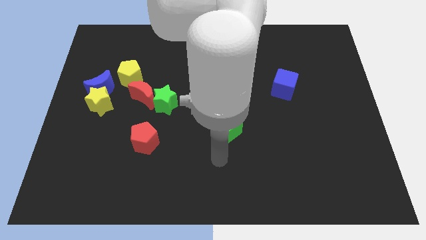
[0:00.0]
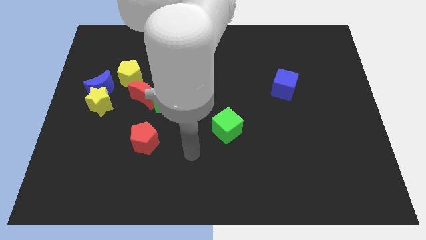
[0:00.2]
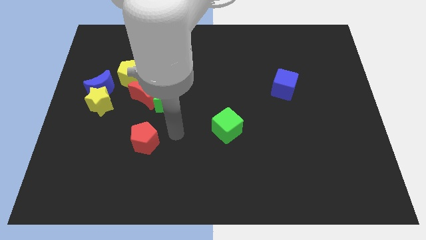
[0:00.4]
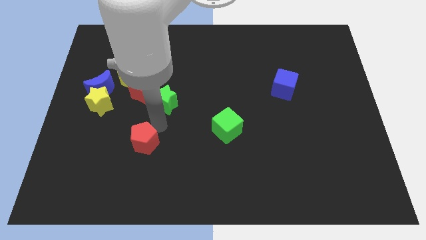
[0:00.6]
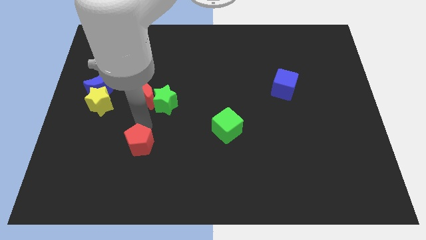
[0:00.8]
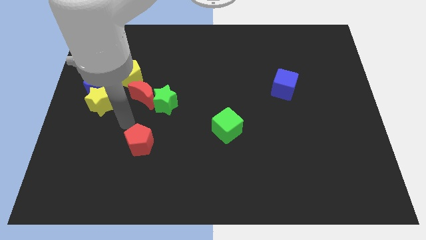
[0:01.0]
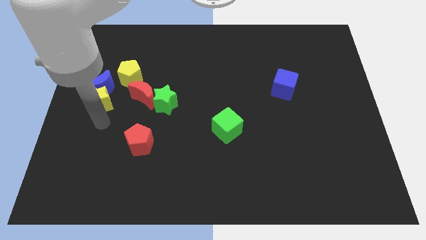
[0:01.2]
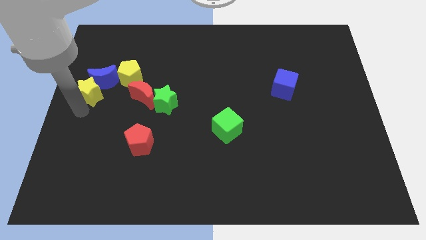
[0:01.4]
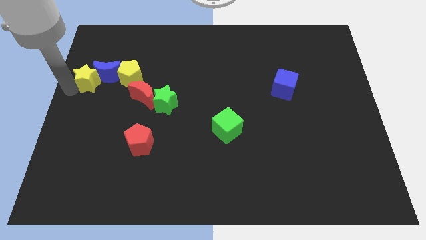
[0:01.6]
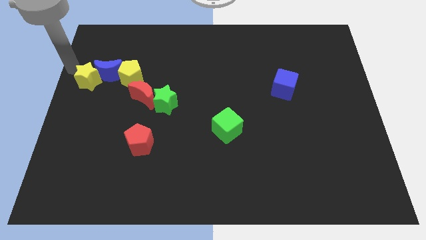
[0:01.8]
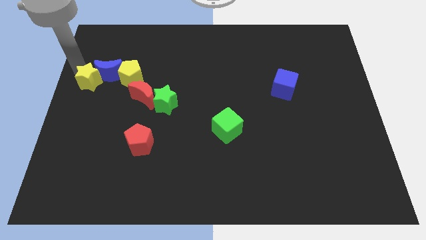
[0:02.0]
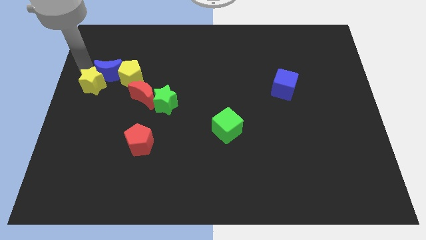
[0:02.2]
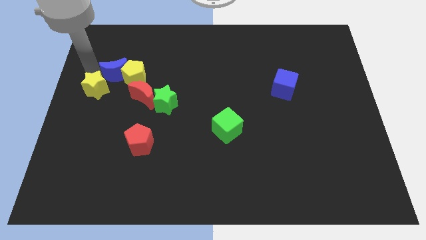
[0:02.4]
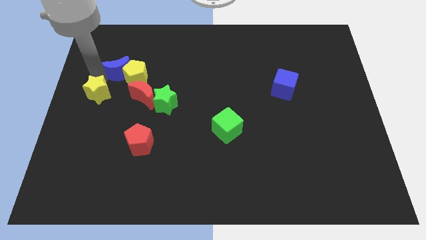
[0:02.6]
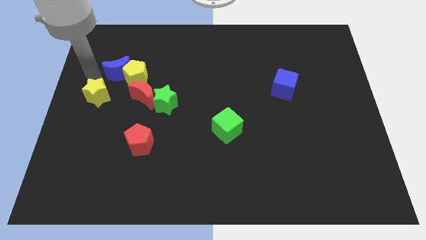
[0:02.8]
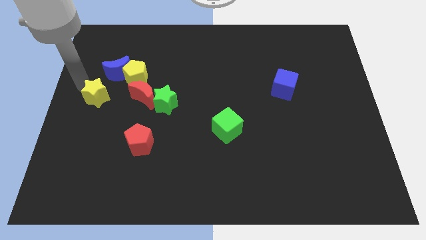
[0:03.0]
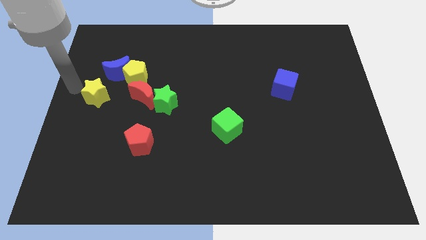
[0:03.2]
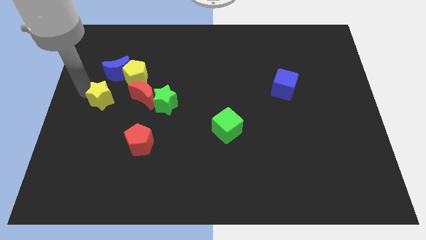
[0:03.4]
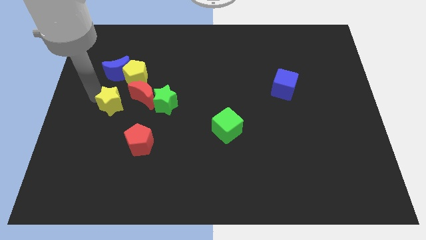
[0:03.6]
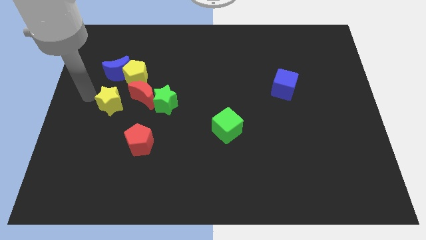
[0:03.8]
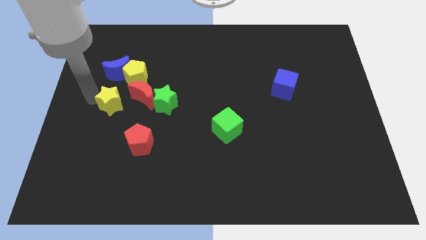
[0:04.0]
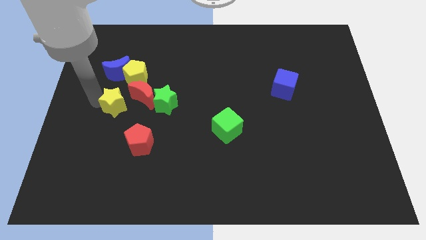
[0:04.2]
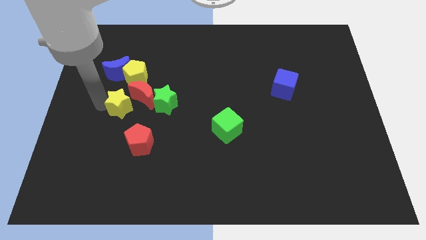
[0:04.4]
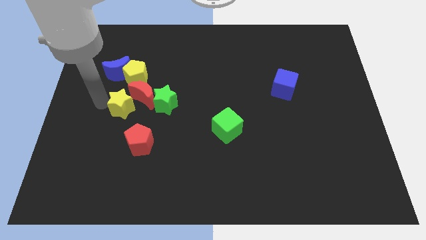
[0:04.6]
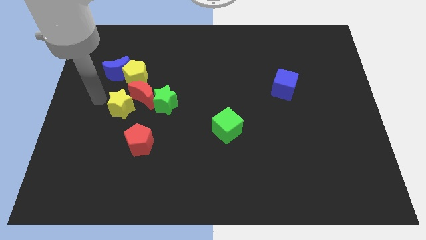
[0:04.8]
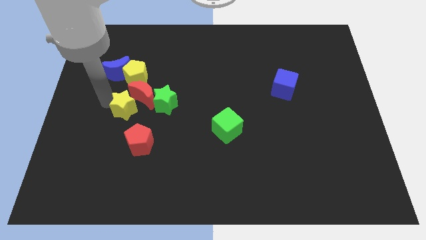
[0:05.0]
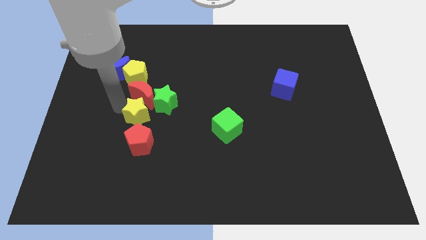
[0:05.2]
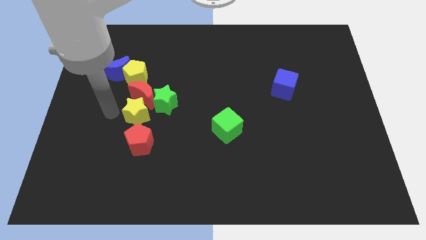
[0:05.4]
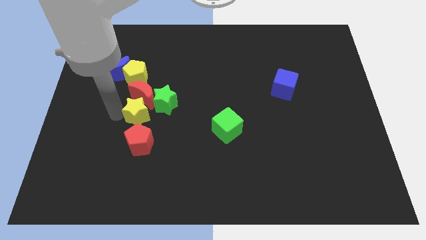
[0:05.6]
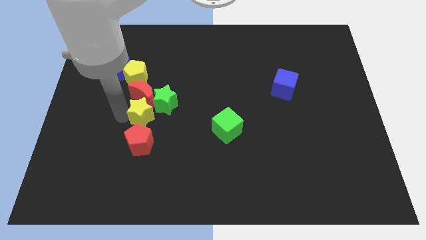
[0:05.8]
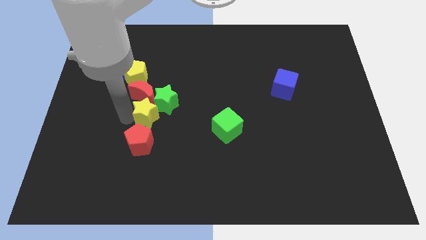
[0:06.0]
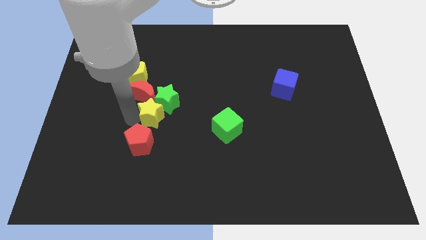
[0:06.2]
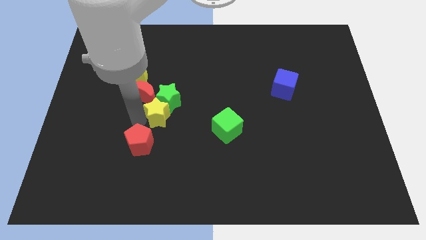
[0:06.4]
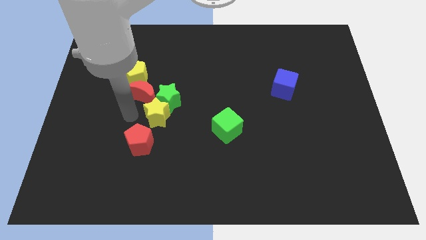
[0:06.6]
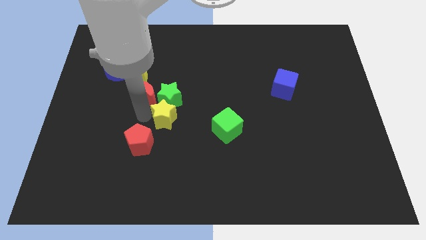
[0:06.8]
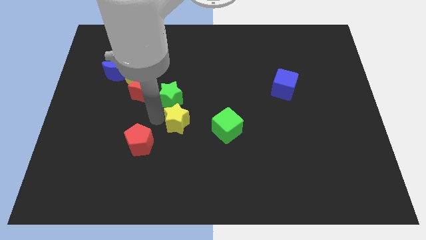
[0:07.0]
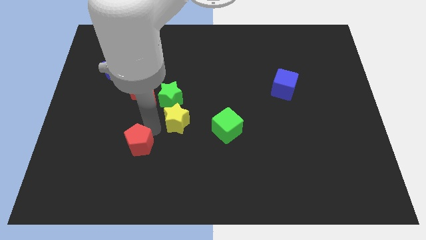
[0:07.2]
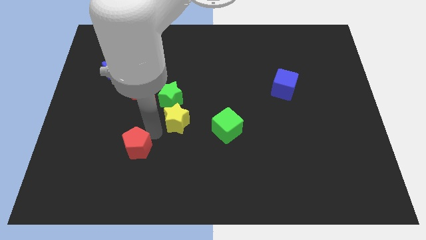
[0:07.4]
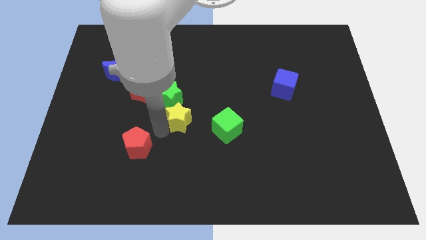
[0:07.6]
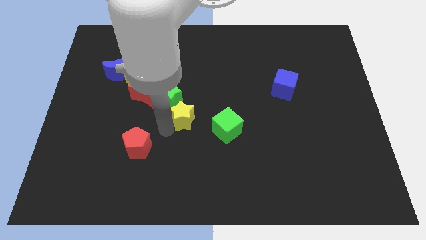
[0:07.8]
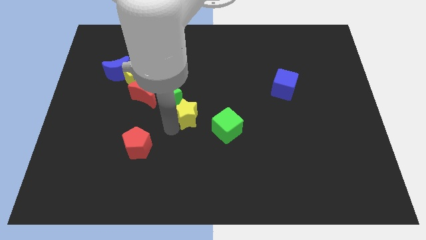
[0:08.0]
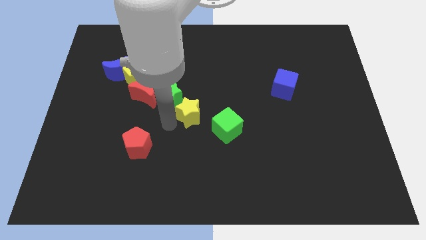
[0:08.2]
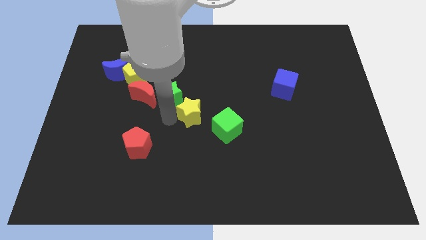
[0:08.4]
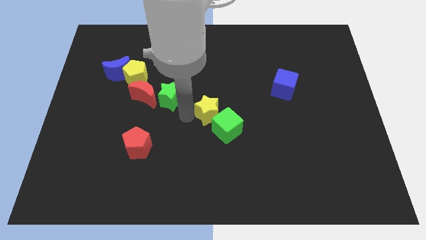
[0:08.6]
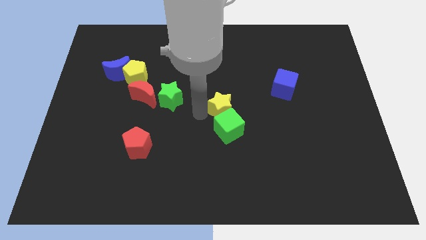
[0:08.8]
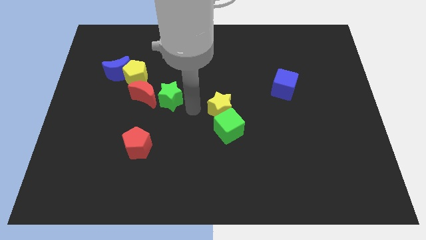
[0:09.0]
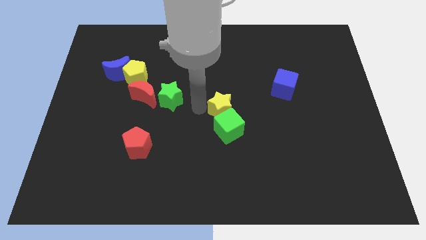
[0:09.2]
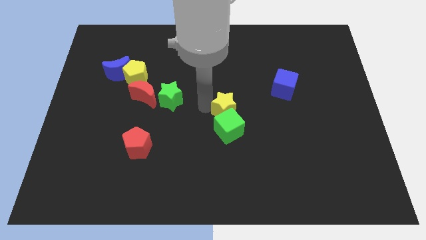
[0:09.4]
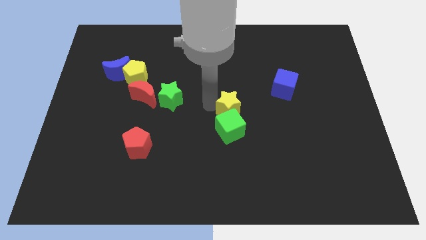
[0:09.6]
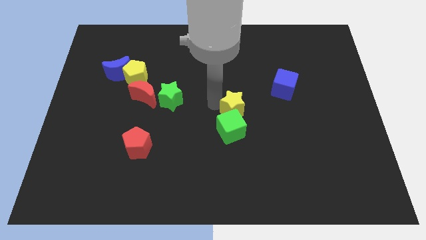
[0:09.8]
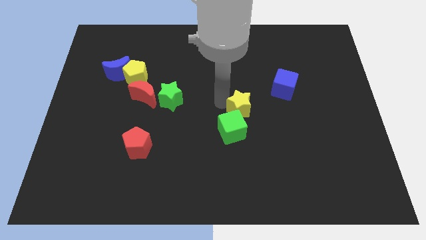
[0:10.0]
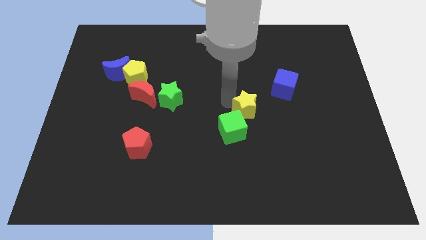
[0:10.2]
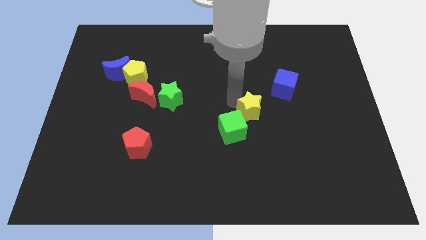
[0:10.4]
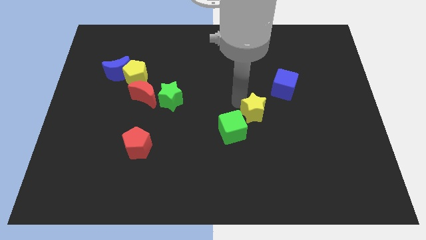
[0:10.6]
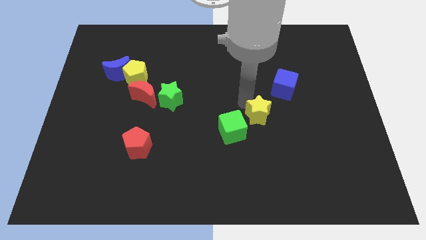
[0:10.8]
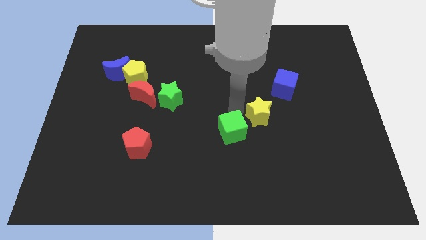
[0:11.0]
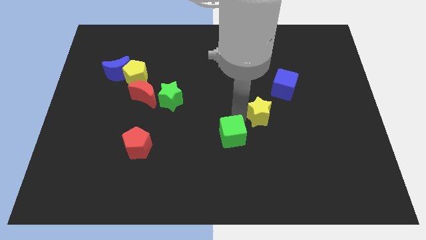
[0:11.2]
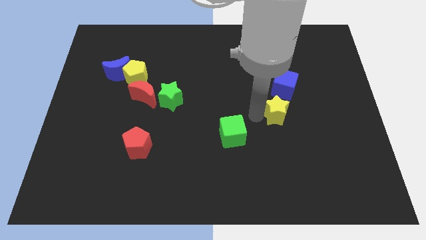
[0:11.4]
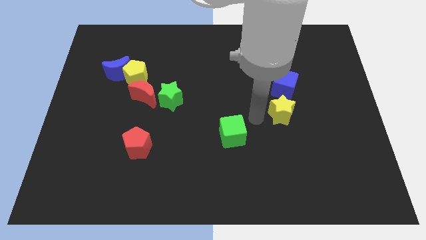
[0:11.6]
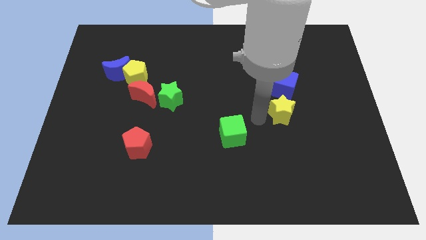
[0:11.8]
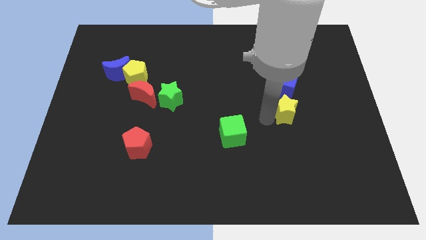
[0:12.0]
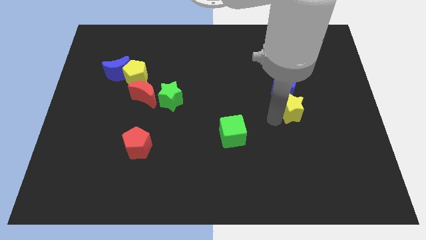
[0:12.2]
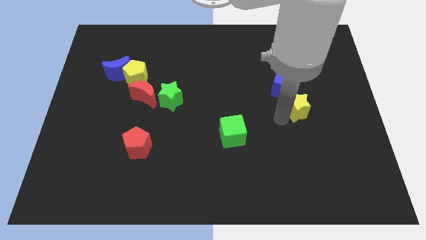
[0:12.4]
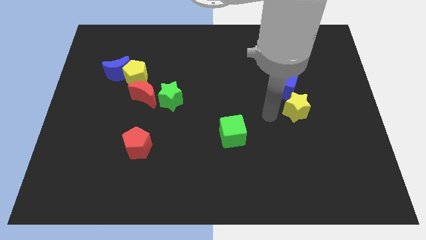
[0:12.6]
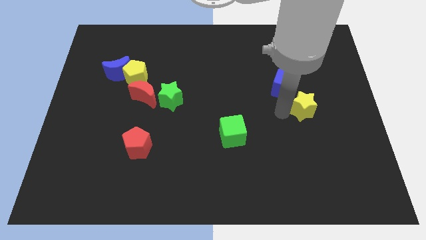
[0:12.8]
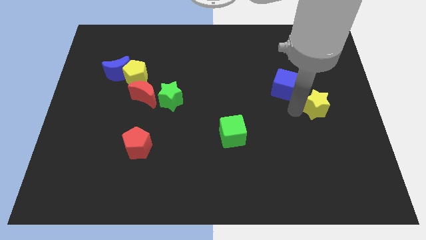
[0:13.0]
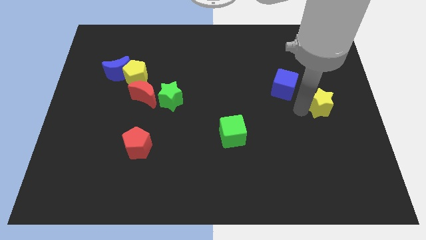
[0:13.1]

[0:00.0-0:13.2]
put the yellow star to the right side of the board
